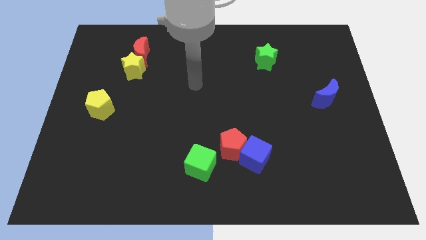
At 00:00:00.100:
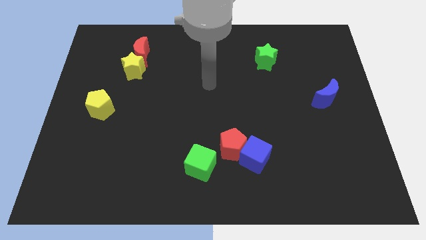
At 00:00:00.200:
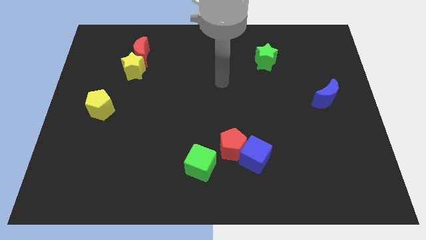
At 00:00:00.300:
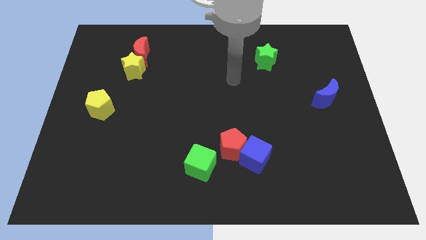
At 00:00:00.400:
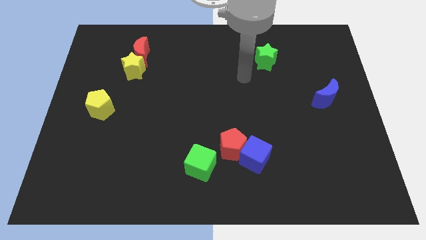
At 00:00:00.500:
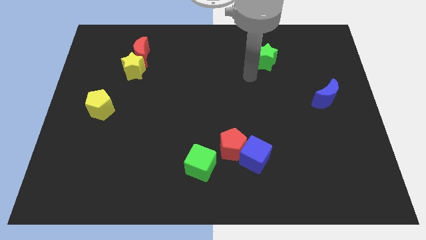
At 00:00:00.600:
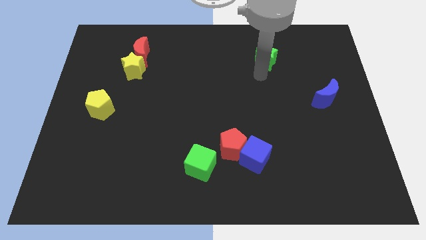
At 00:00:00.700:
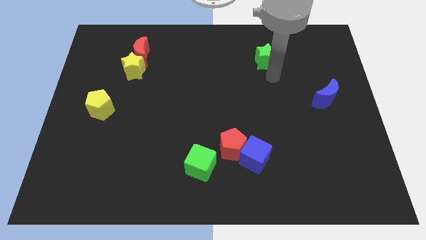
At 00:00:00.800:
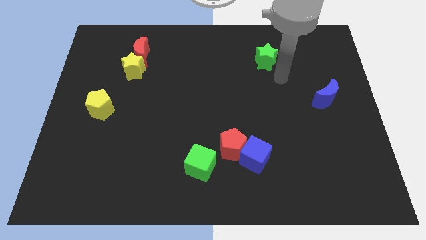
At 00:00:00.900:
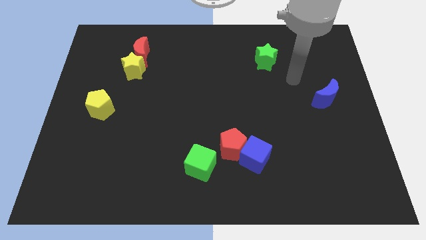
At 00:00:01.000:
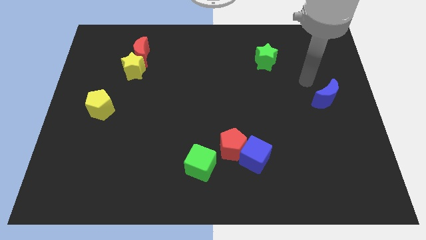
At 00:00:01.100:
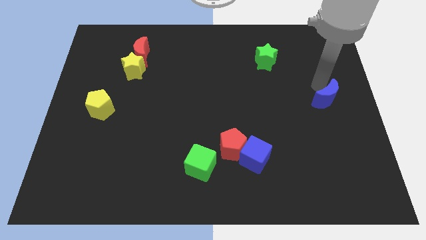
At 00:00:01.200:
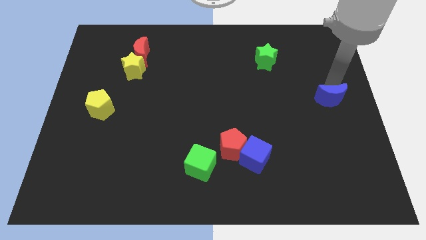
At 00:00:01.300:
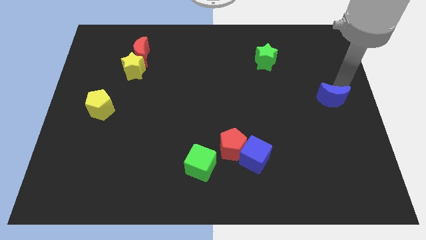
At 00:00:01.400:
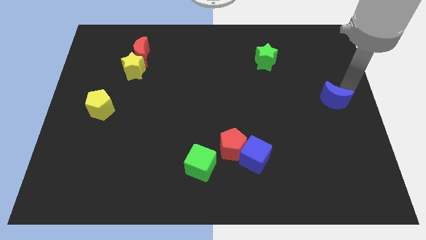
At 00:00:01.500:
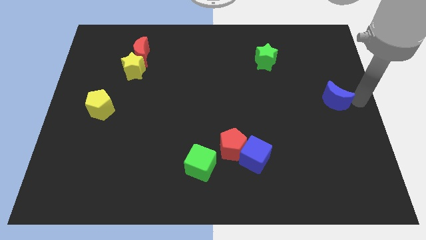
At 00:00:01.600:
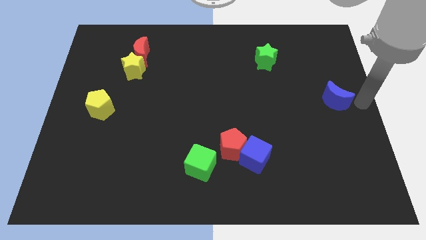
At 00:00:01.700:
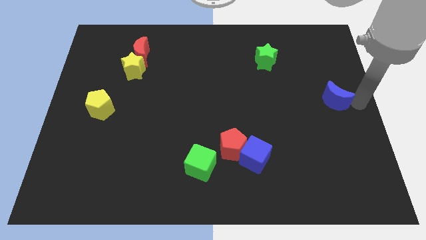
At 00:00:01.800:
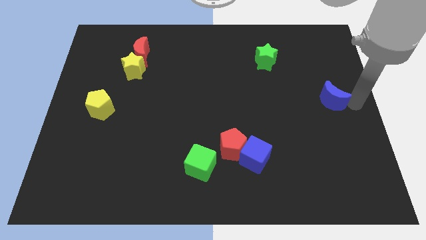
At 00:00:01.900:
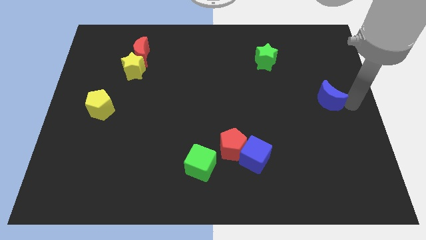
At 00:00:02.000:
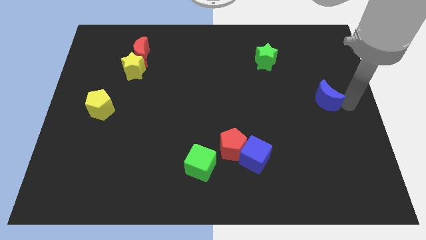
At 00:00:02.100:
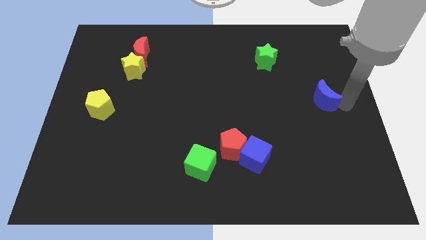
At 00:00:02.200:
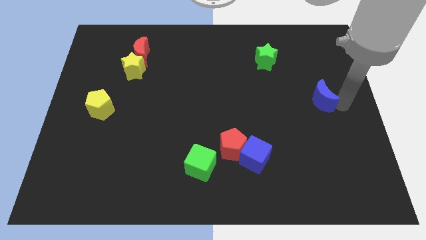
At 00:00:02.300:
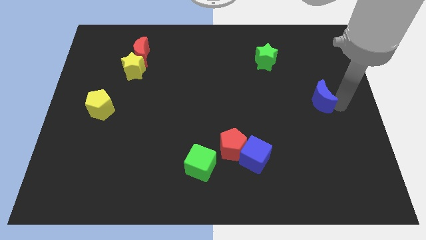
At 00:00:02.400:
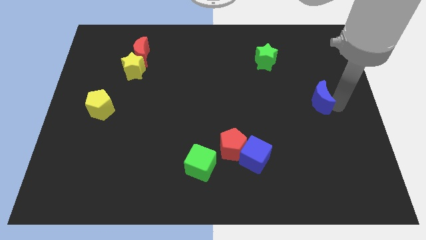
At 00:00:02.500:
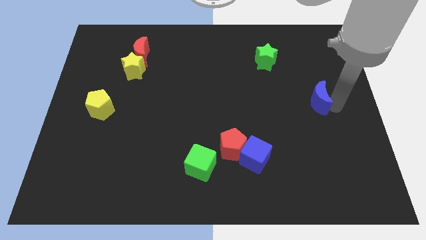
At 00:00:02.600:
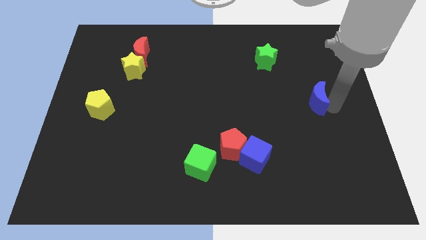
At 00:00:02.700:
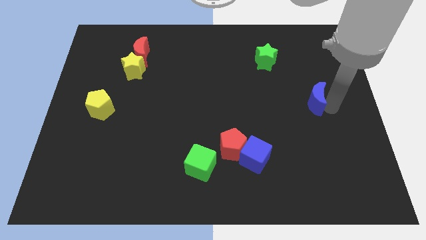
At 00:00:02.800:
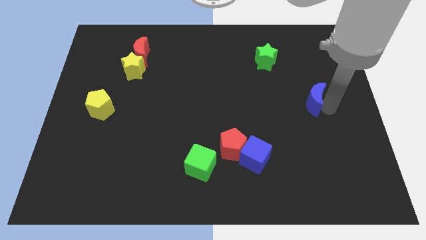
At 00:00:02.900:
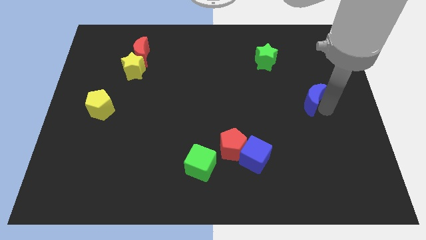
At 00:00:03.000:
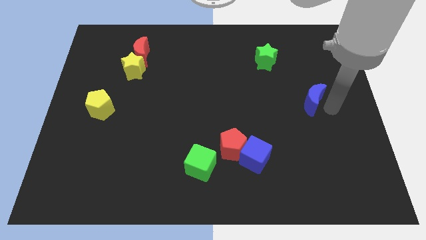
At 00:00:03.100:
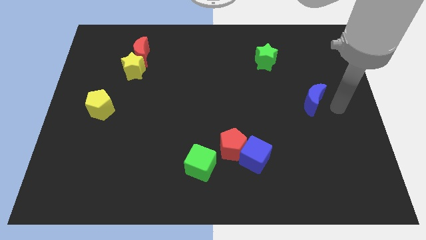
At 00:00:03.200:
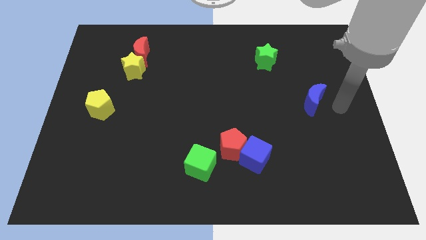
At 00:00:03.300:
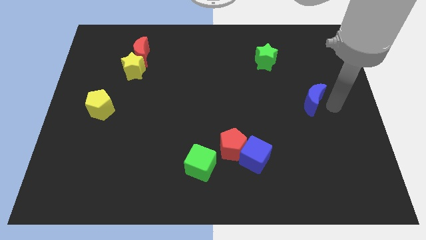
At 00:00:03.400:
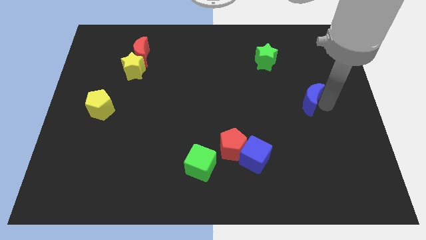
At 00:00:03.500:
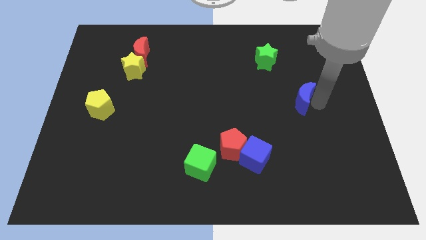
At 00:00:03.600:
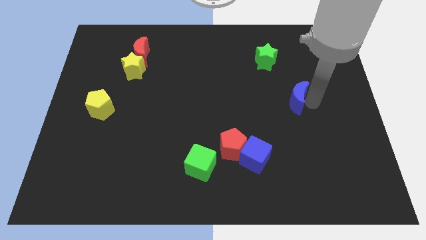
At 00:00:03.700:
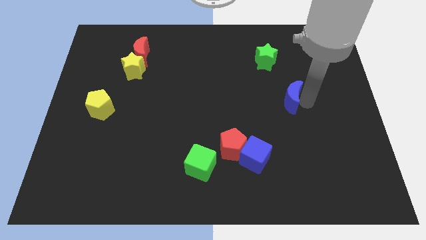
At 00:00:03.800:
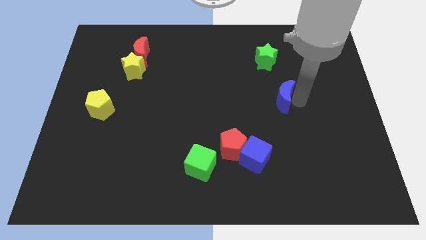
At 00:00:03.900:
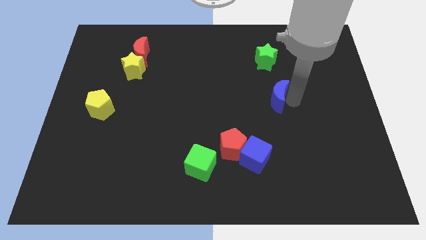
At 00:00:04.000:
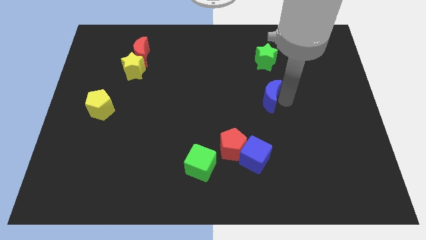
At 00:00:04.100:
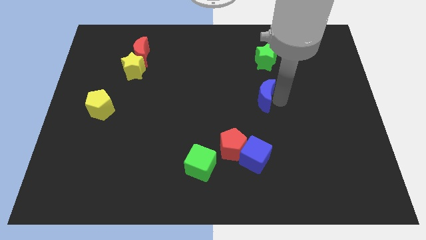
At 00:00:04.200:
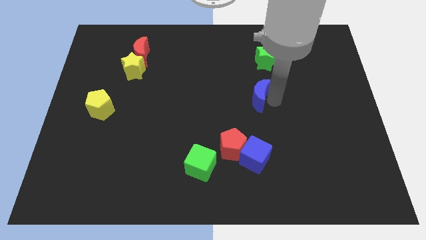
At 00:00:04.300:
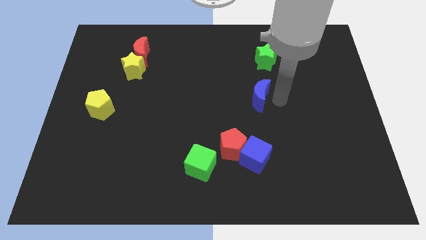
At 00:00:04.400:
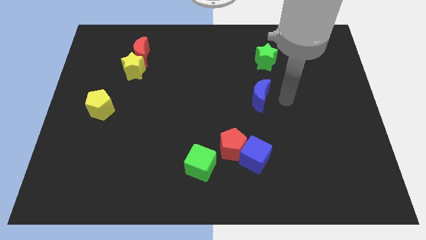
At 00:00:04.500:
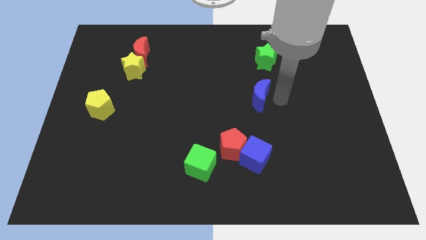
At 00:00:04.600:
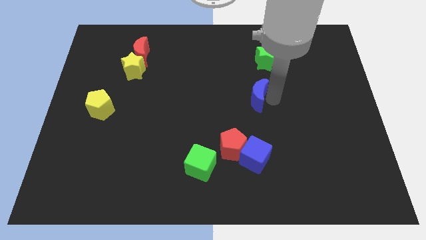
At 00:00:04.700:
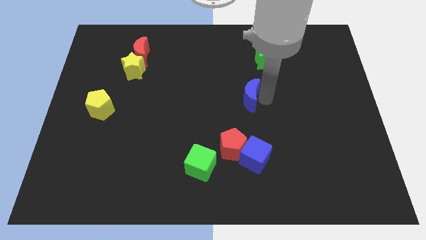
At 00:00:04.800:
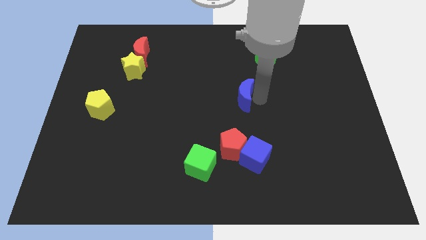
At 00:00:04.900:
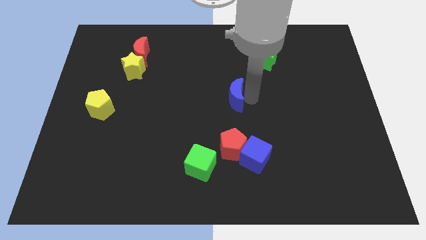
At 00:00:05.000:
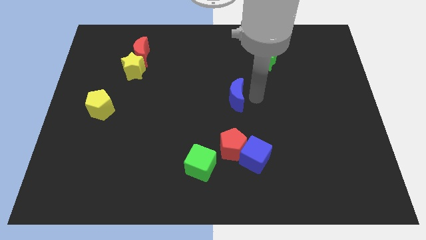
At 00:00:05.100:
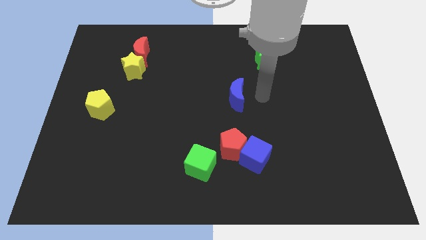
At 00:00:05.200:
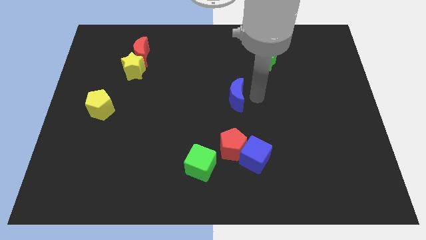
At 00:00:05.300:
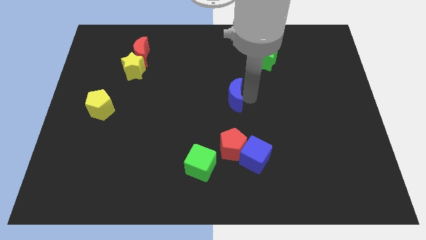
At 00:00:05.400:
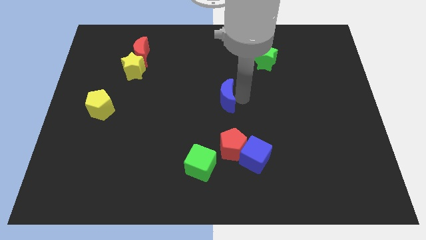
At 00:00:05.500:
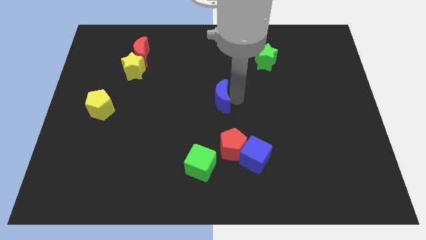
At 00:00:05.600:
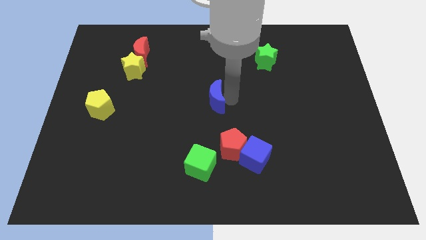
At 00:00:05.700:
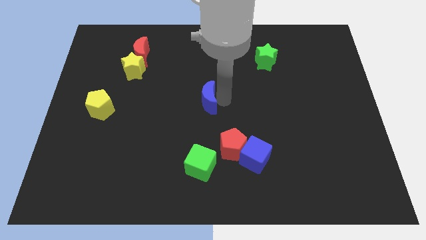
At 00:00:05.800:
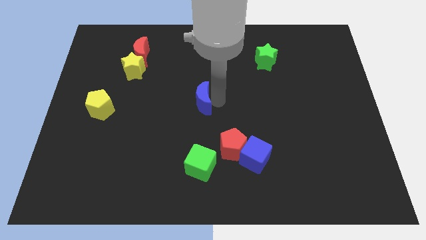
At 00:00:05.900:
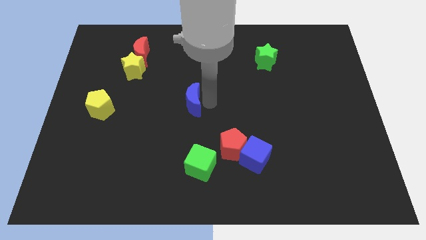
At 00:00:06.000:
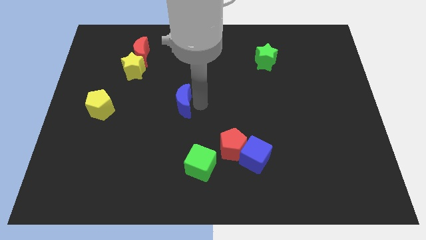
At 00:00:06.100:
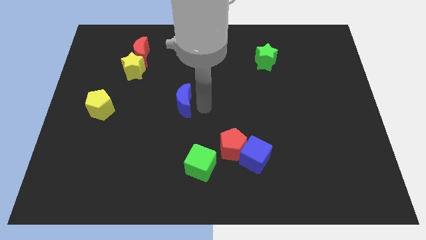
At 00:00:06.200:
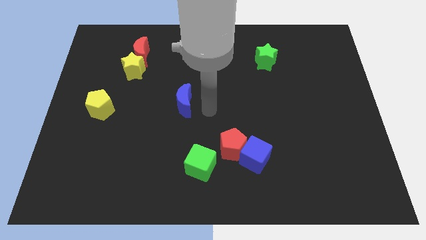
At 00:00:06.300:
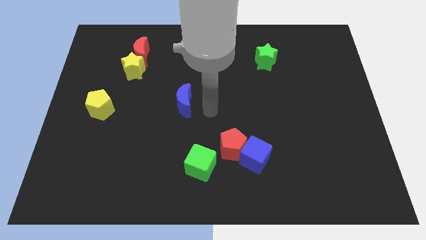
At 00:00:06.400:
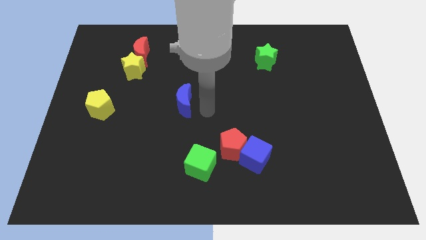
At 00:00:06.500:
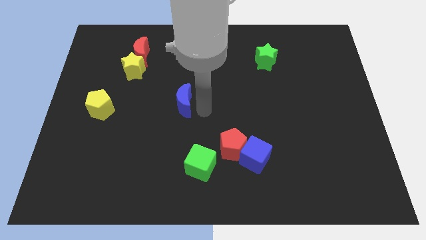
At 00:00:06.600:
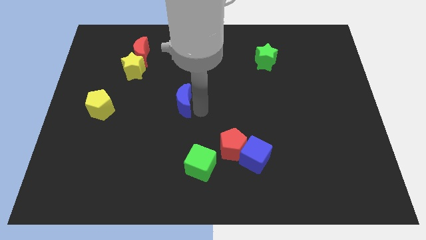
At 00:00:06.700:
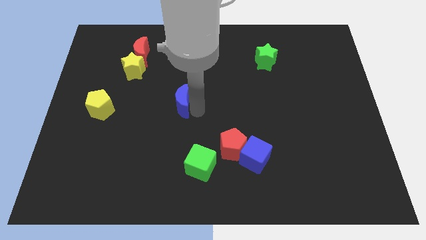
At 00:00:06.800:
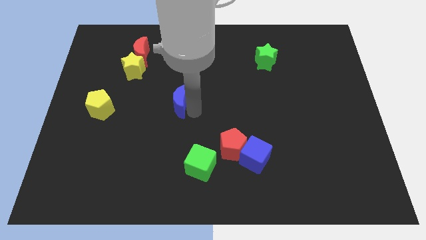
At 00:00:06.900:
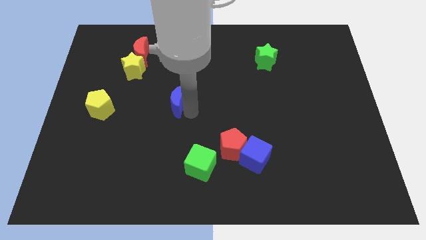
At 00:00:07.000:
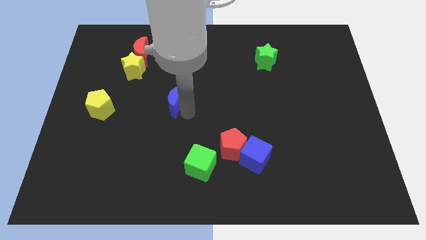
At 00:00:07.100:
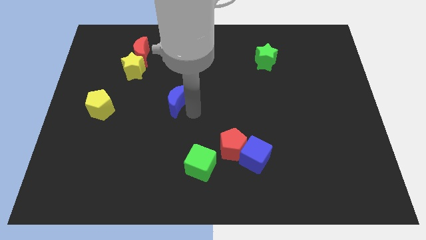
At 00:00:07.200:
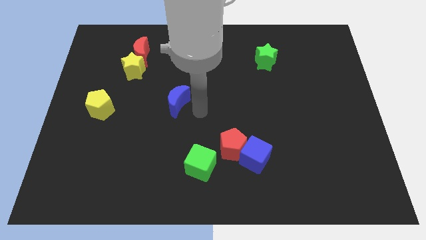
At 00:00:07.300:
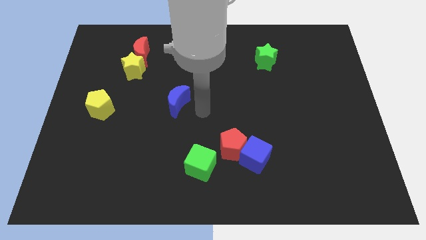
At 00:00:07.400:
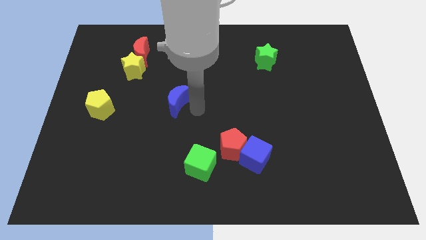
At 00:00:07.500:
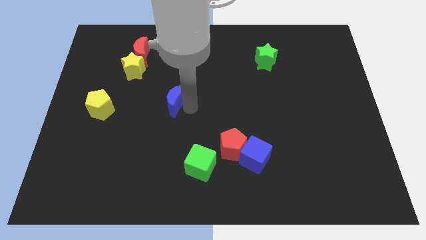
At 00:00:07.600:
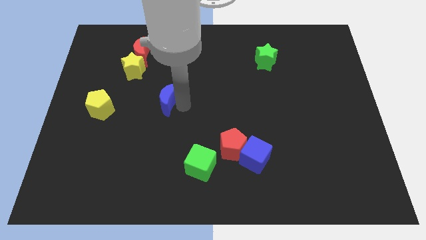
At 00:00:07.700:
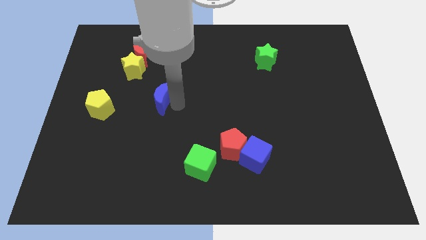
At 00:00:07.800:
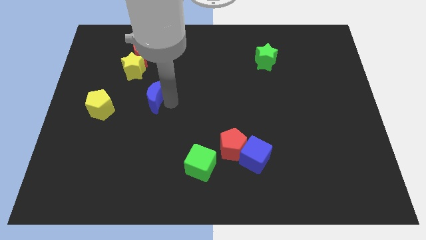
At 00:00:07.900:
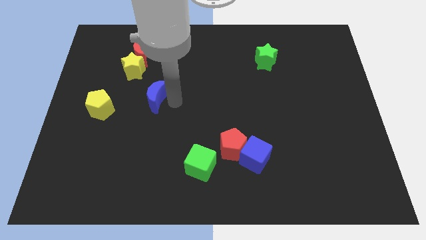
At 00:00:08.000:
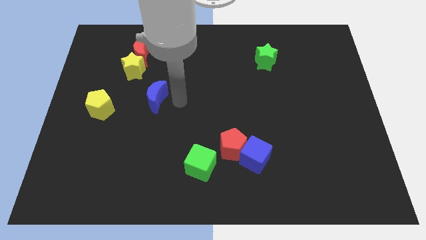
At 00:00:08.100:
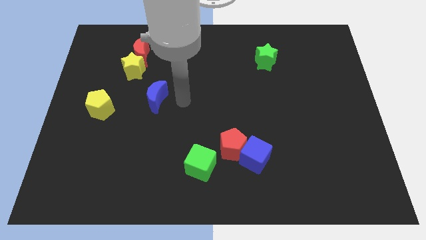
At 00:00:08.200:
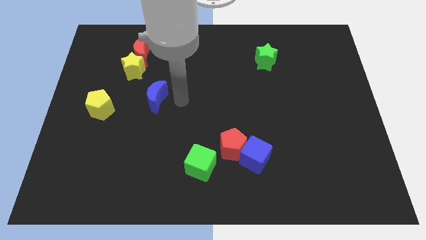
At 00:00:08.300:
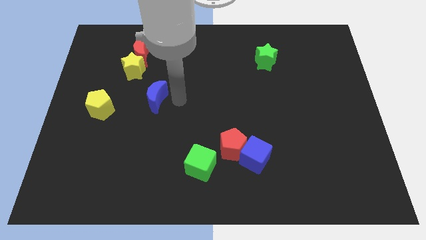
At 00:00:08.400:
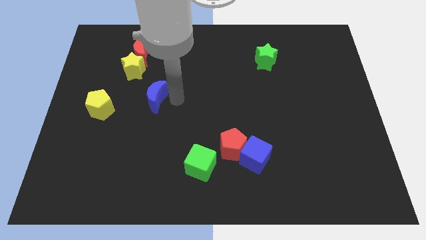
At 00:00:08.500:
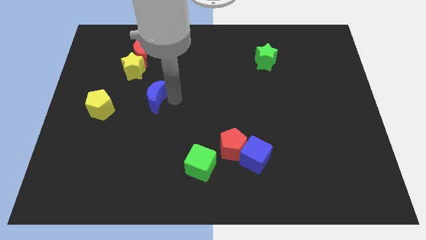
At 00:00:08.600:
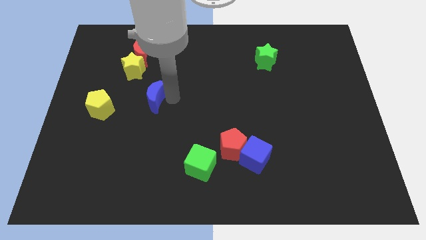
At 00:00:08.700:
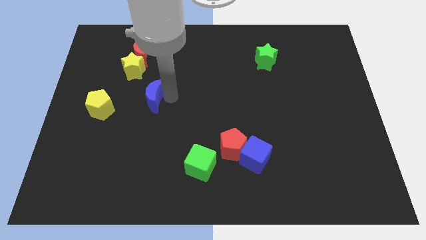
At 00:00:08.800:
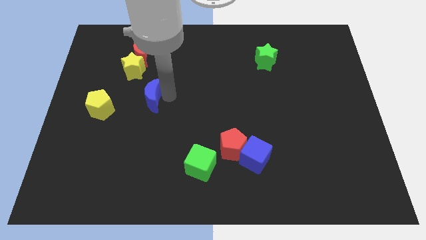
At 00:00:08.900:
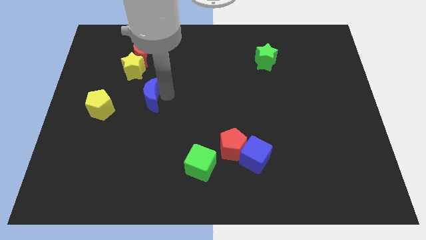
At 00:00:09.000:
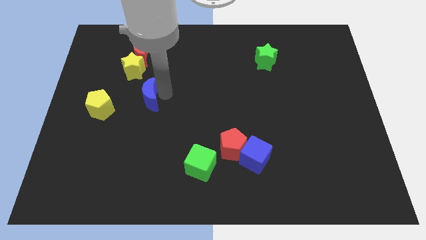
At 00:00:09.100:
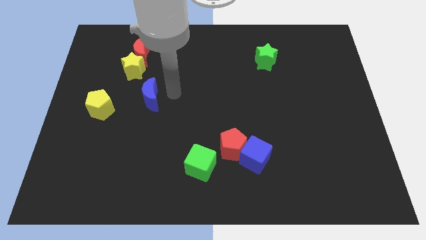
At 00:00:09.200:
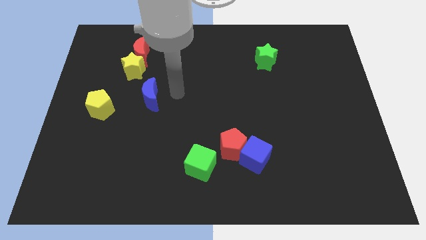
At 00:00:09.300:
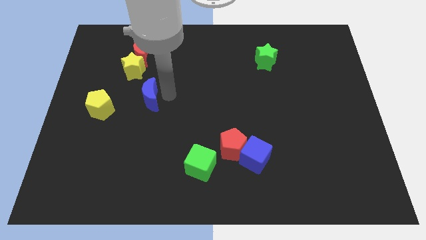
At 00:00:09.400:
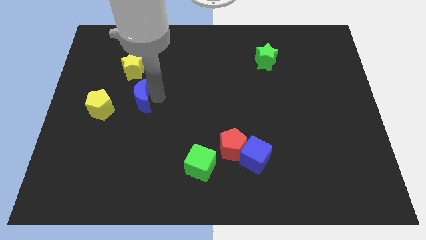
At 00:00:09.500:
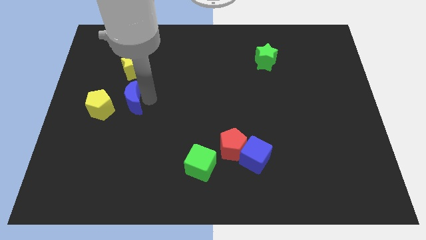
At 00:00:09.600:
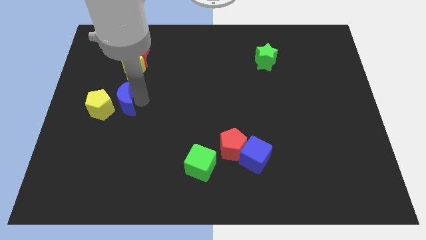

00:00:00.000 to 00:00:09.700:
slide the blue moon towards the yellow pentagon
